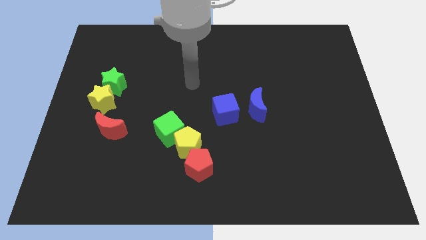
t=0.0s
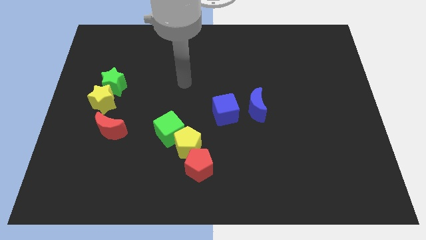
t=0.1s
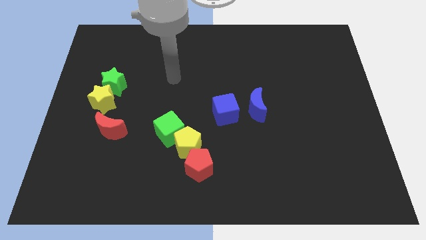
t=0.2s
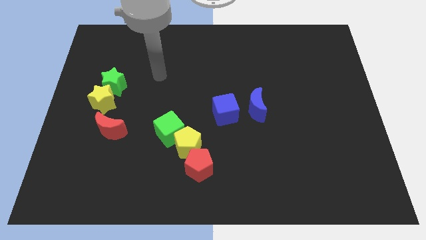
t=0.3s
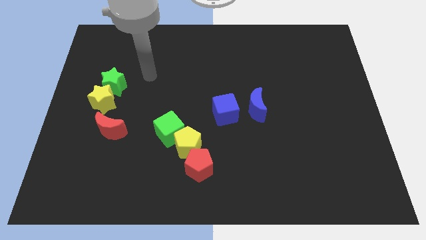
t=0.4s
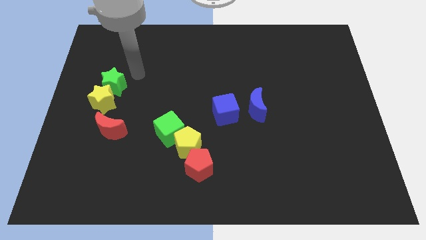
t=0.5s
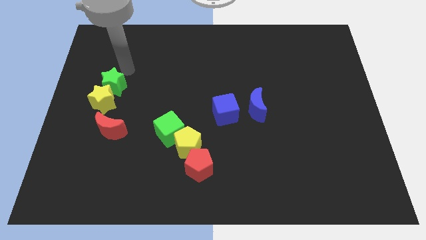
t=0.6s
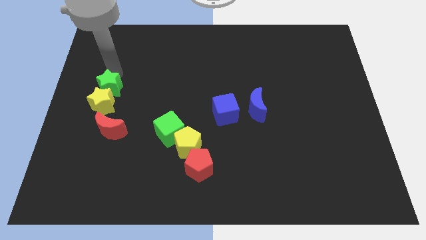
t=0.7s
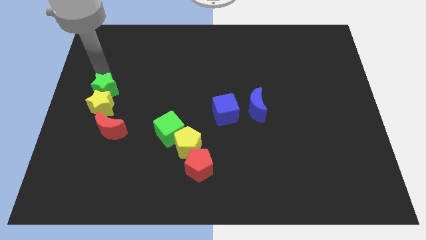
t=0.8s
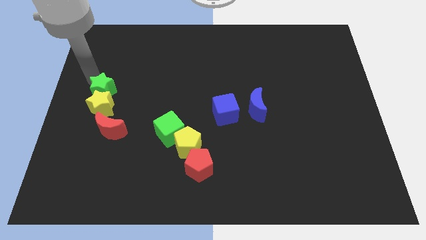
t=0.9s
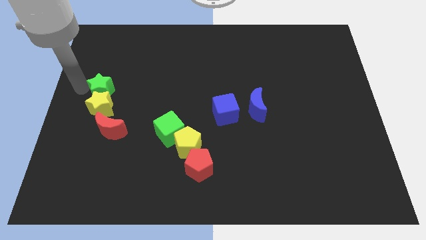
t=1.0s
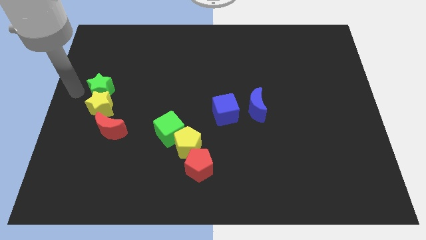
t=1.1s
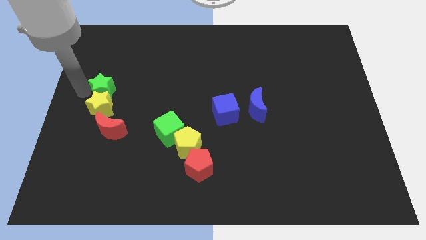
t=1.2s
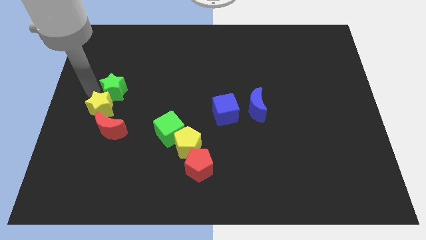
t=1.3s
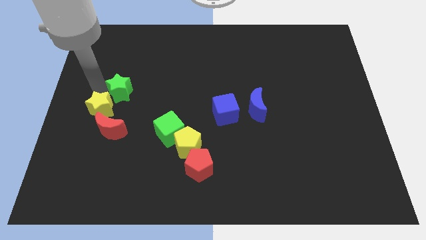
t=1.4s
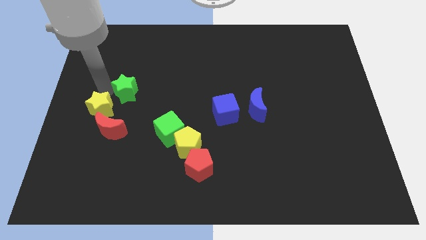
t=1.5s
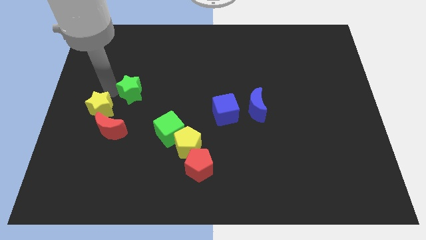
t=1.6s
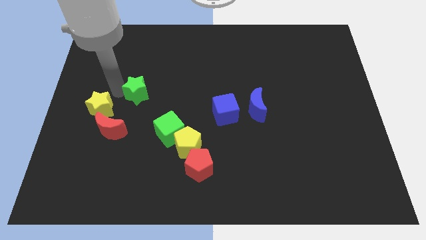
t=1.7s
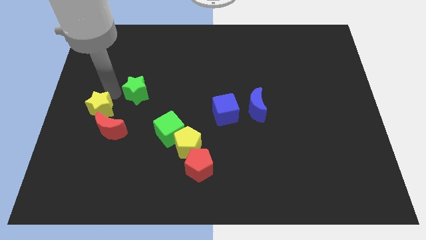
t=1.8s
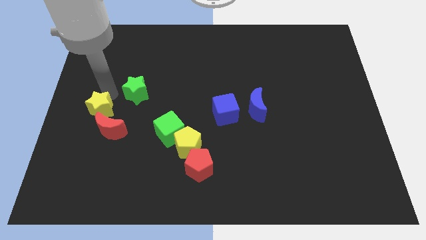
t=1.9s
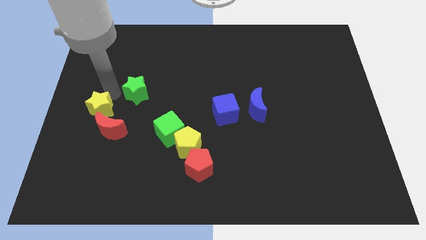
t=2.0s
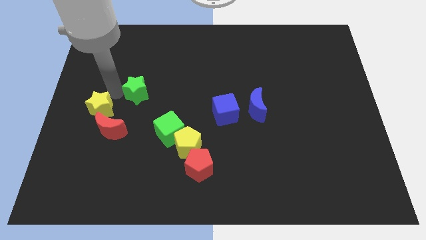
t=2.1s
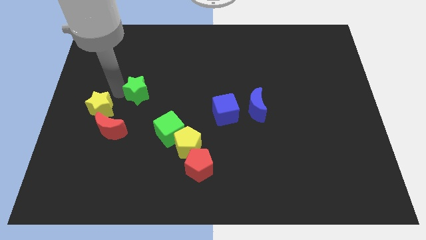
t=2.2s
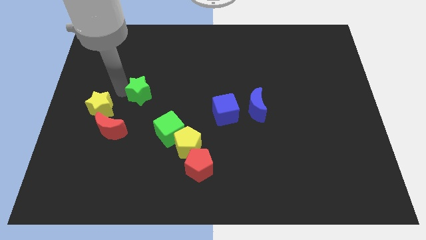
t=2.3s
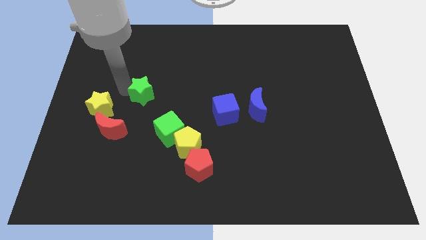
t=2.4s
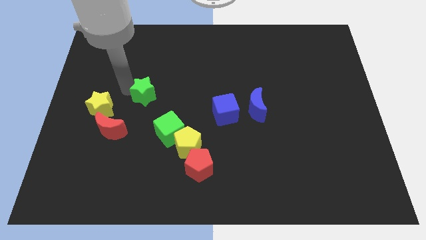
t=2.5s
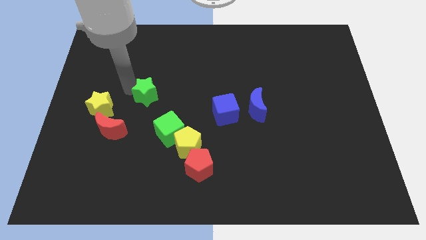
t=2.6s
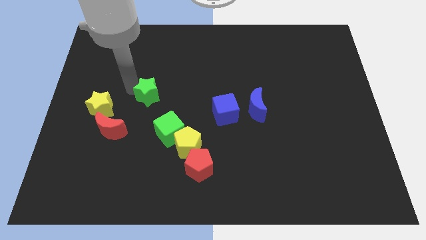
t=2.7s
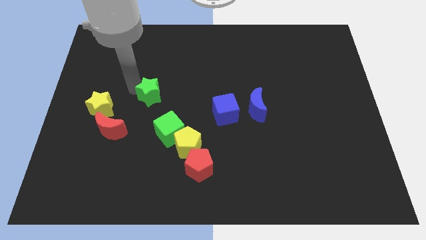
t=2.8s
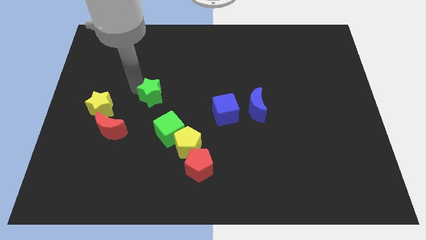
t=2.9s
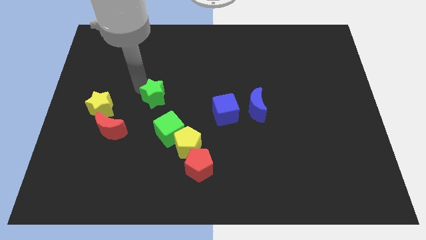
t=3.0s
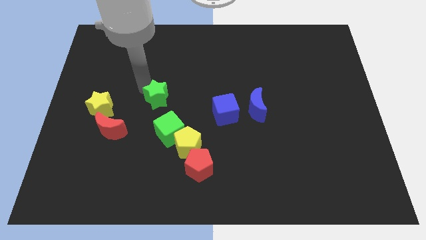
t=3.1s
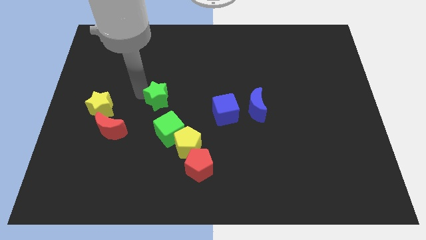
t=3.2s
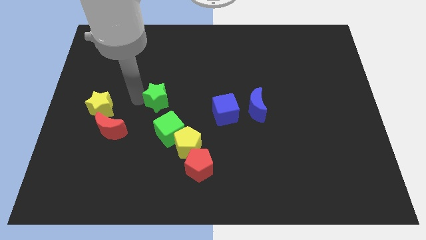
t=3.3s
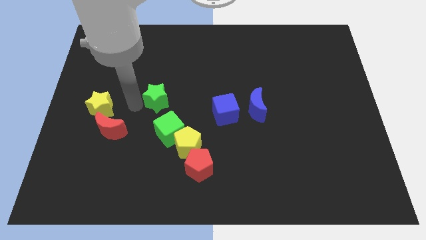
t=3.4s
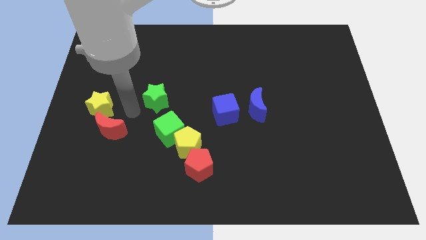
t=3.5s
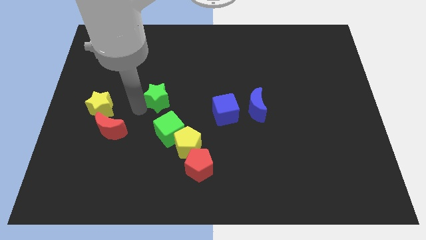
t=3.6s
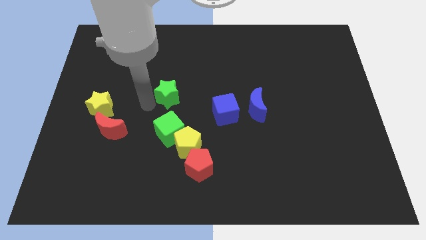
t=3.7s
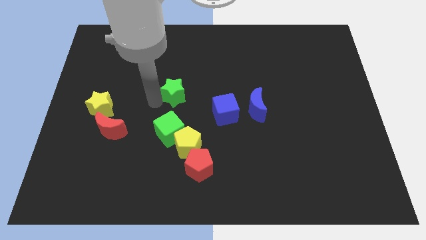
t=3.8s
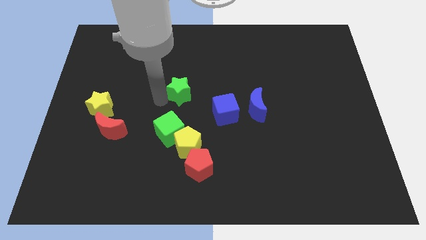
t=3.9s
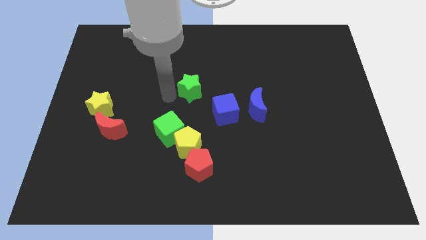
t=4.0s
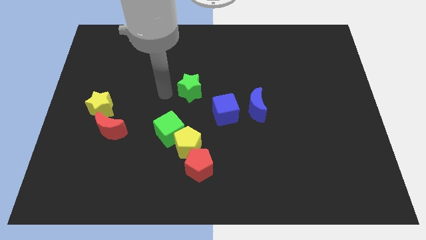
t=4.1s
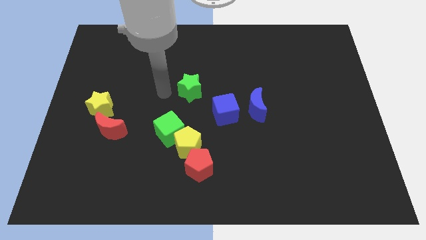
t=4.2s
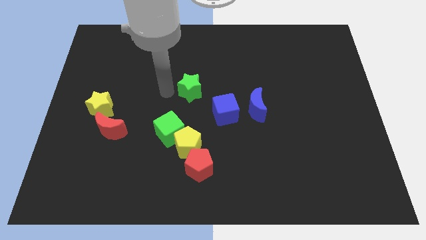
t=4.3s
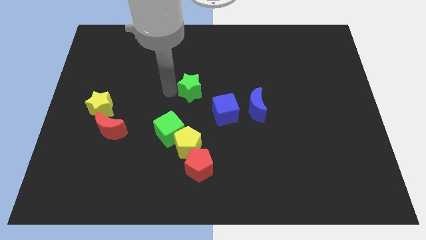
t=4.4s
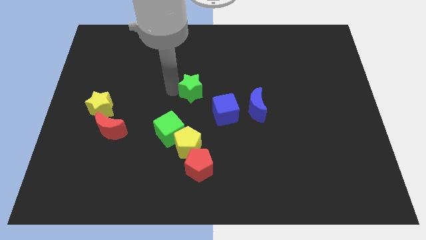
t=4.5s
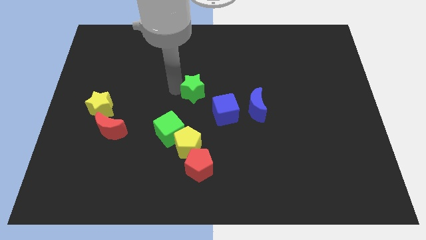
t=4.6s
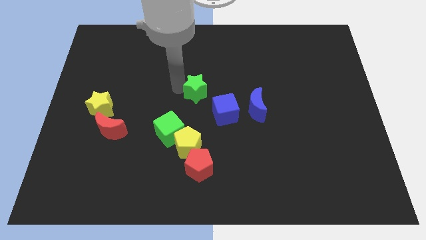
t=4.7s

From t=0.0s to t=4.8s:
slide the green star to the right

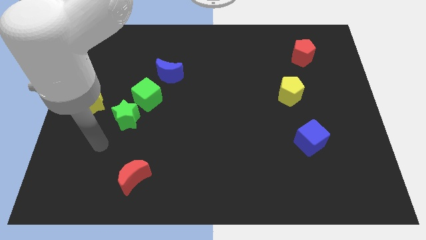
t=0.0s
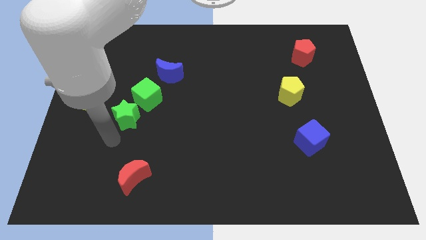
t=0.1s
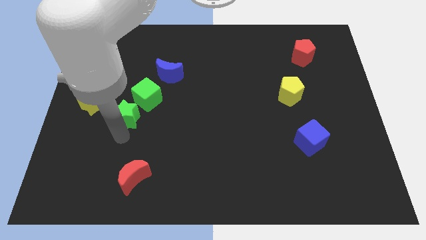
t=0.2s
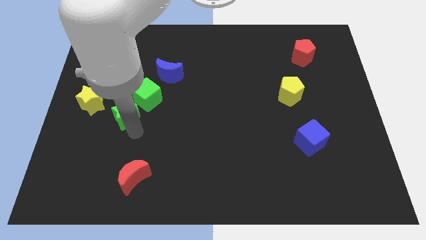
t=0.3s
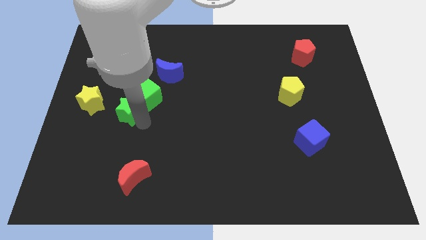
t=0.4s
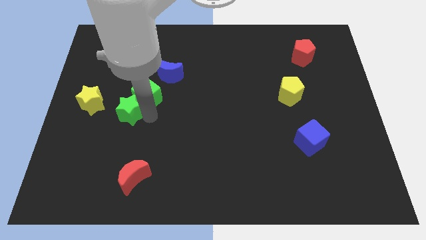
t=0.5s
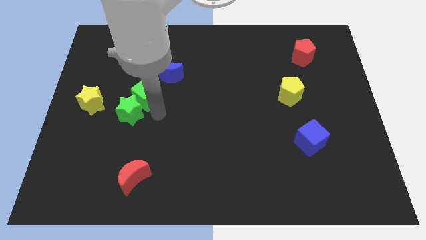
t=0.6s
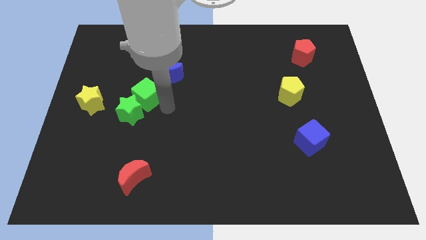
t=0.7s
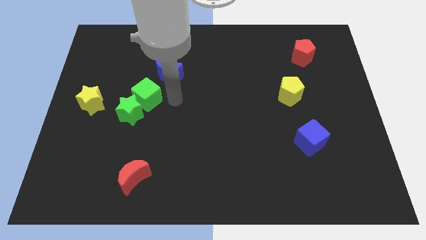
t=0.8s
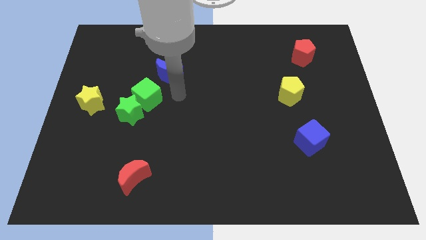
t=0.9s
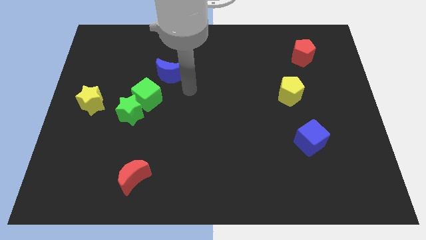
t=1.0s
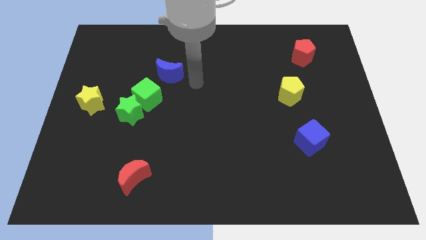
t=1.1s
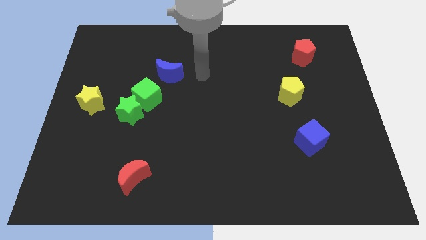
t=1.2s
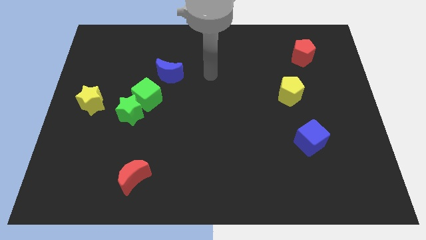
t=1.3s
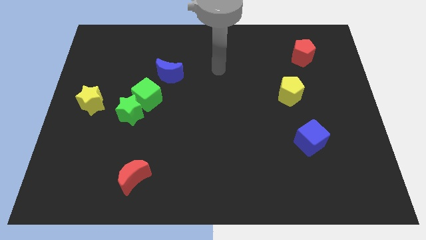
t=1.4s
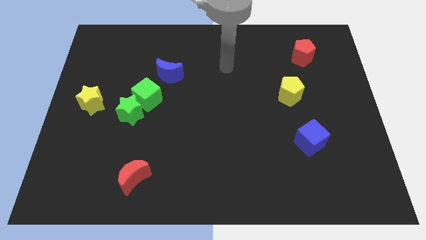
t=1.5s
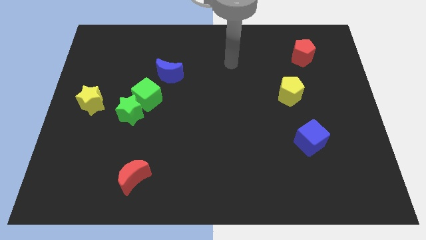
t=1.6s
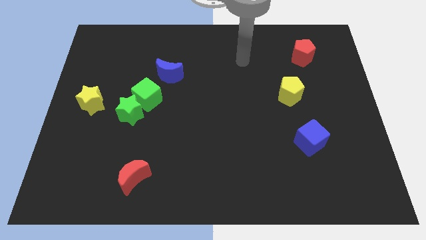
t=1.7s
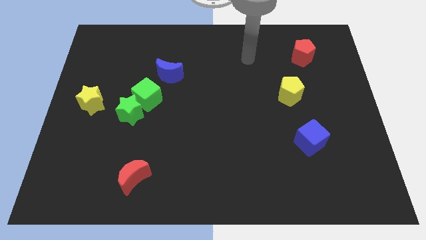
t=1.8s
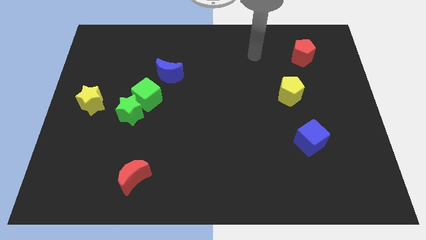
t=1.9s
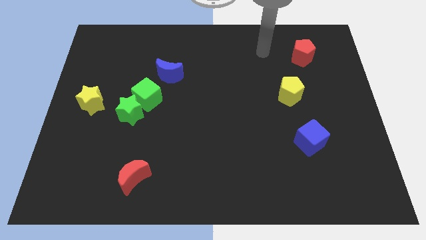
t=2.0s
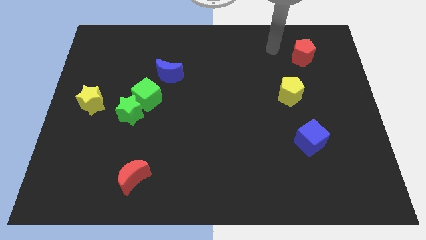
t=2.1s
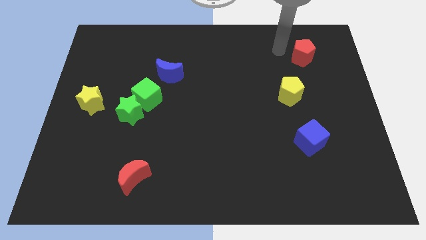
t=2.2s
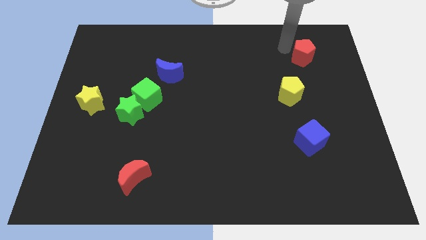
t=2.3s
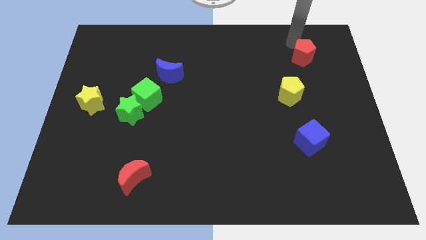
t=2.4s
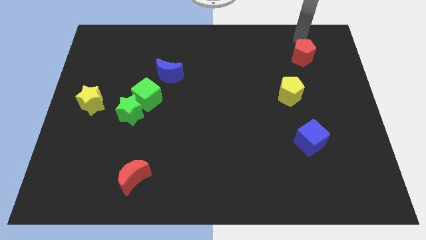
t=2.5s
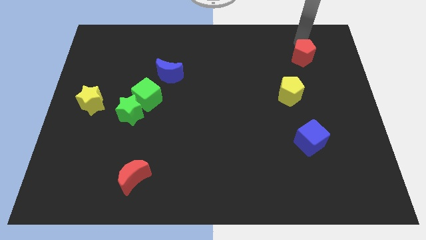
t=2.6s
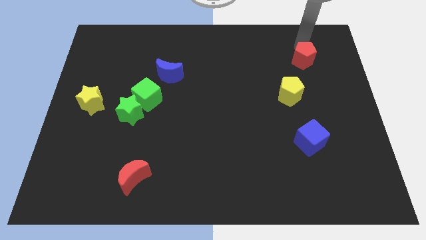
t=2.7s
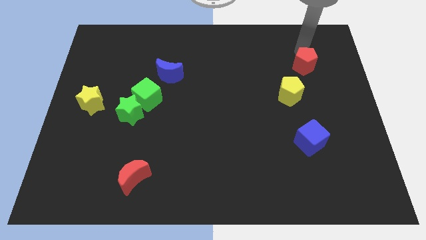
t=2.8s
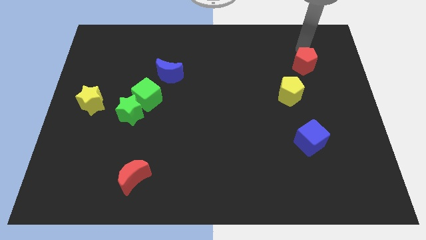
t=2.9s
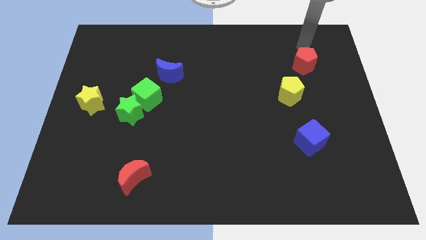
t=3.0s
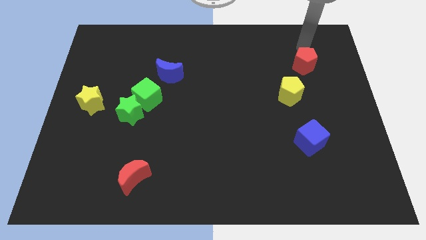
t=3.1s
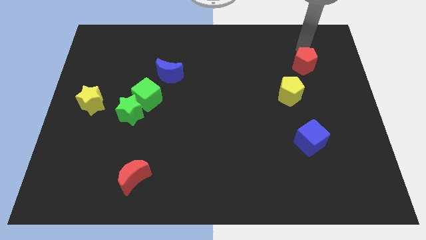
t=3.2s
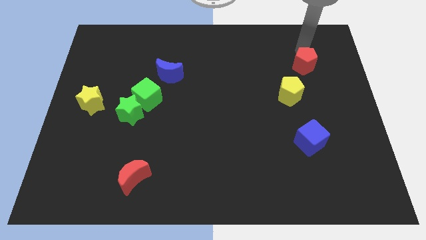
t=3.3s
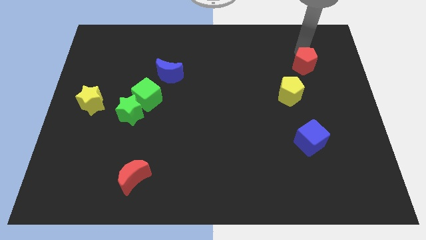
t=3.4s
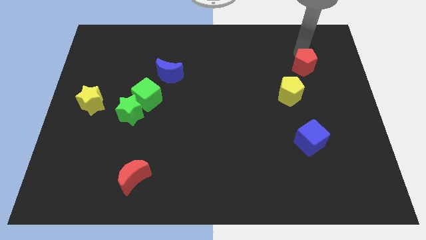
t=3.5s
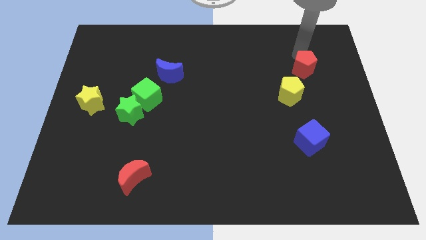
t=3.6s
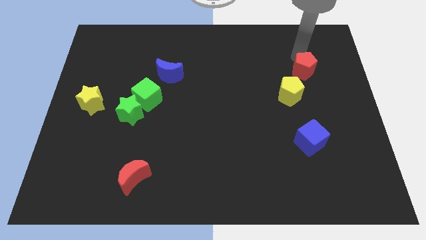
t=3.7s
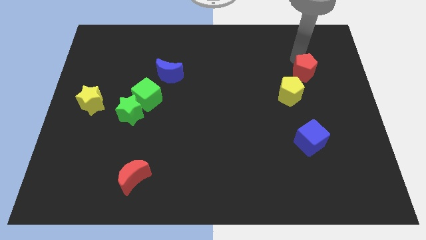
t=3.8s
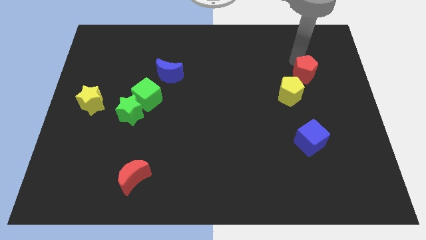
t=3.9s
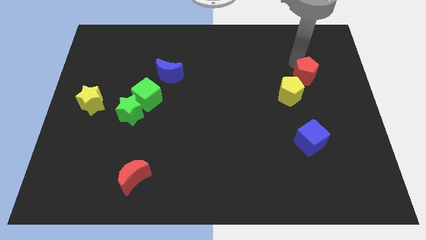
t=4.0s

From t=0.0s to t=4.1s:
move the red pentagon slightly down
